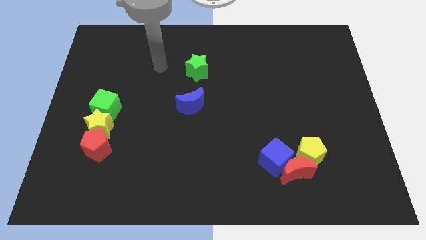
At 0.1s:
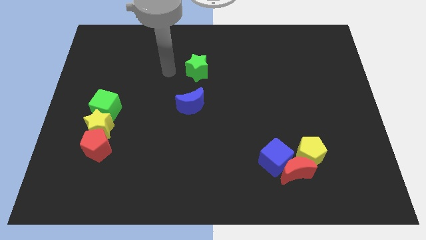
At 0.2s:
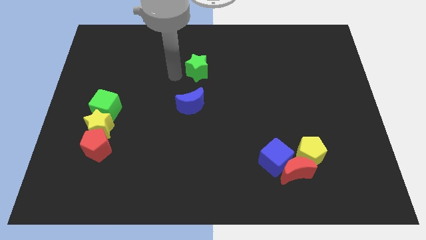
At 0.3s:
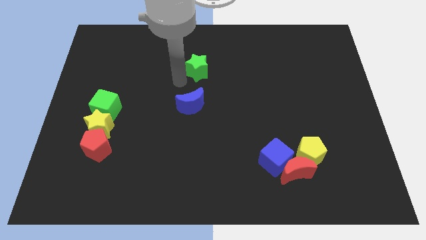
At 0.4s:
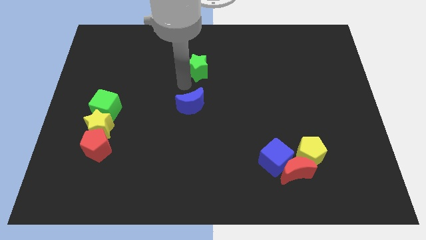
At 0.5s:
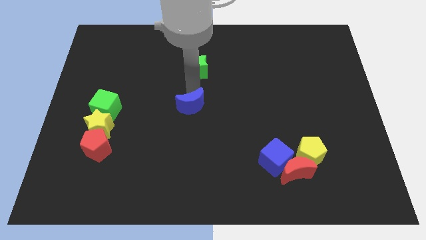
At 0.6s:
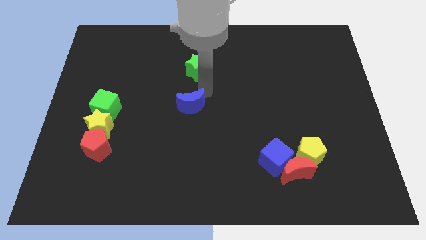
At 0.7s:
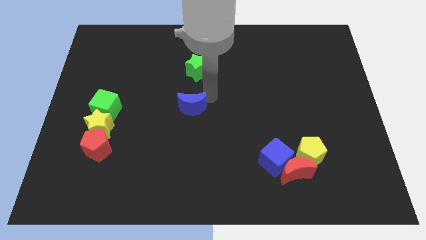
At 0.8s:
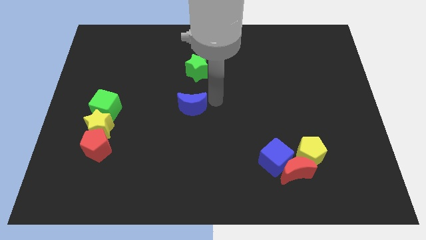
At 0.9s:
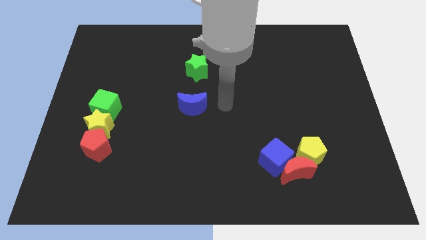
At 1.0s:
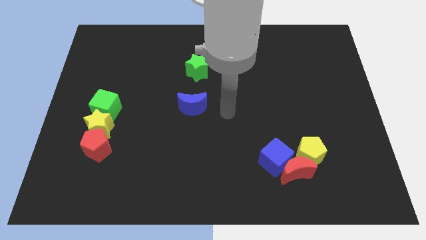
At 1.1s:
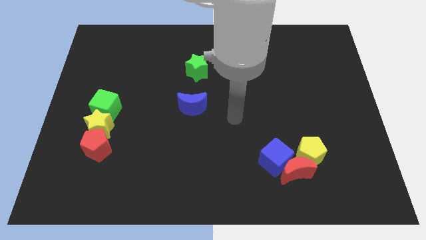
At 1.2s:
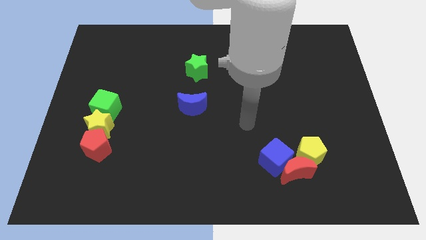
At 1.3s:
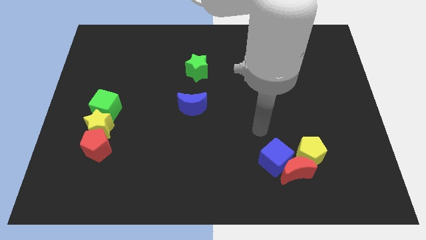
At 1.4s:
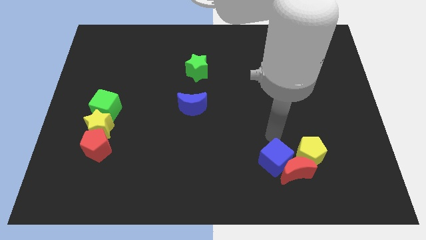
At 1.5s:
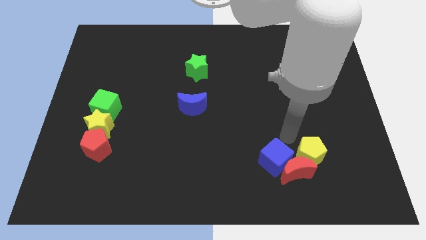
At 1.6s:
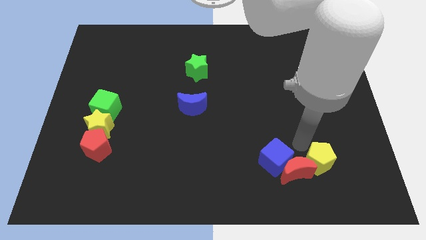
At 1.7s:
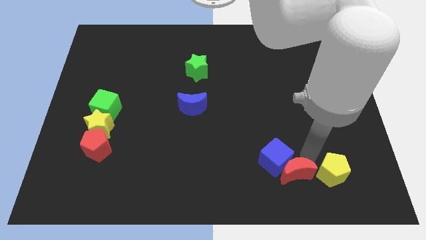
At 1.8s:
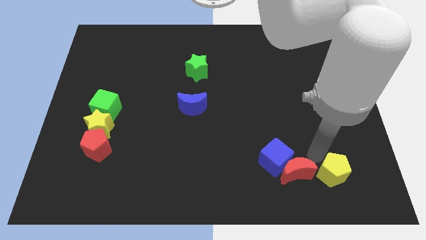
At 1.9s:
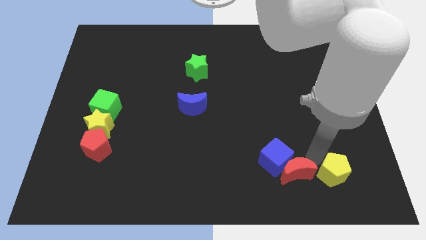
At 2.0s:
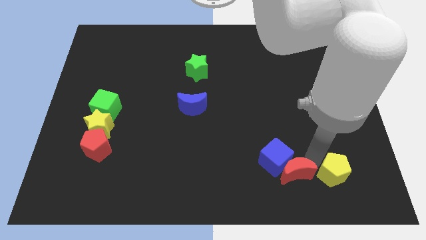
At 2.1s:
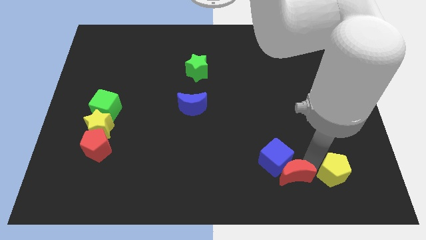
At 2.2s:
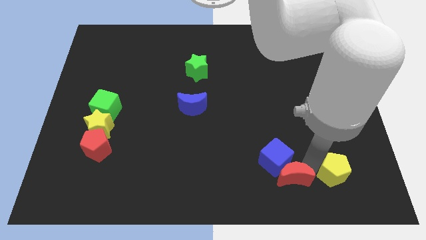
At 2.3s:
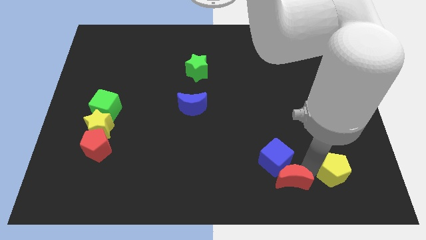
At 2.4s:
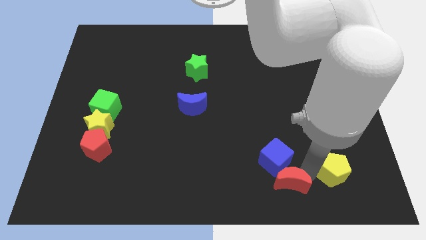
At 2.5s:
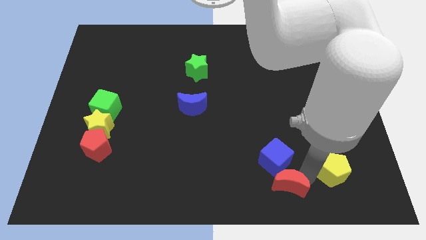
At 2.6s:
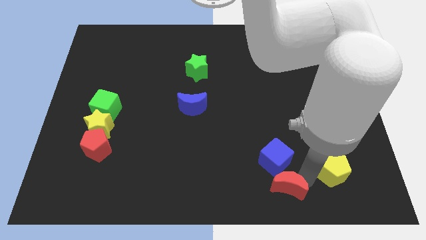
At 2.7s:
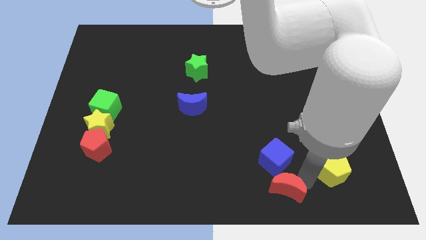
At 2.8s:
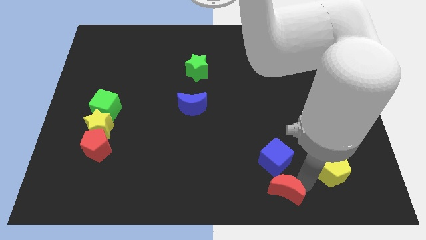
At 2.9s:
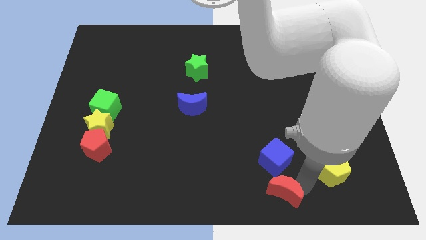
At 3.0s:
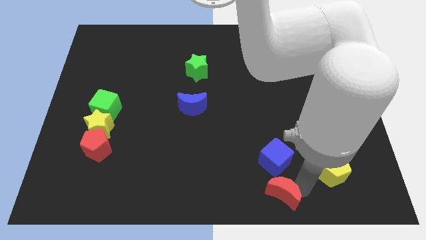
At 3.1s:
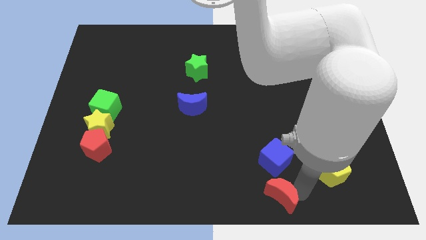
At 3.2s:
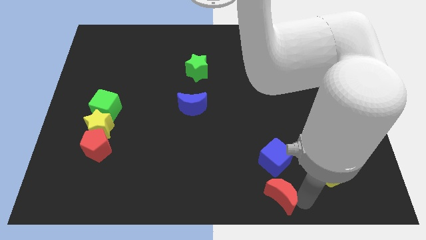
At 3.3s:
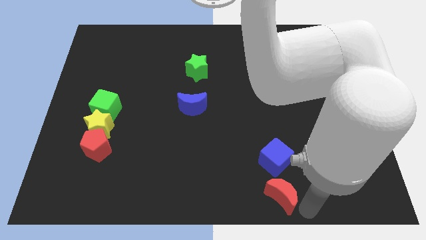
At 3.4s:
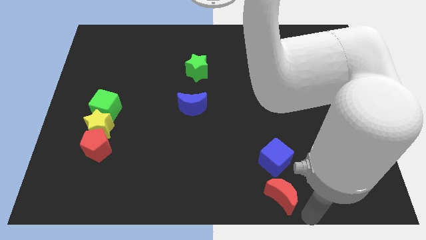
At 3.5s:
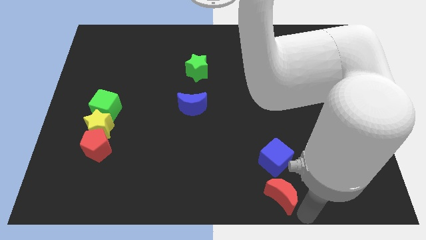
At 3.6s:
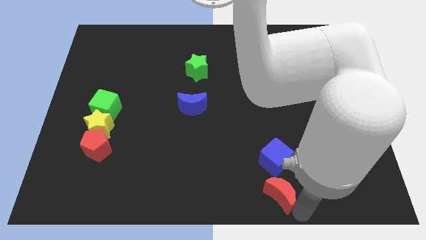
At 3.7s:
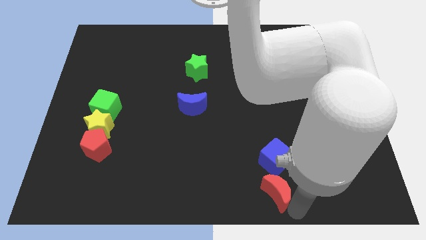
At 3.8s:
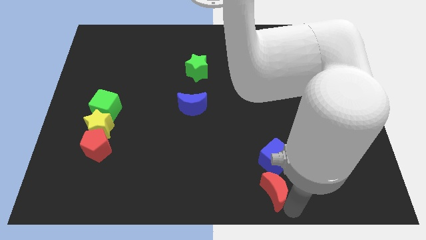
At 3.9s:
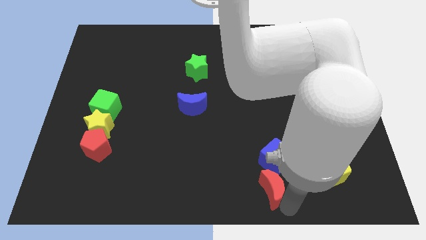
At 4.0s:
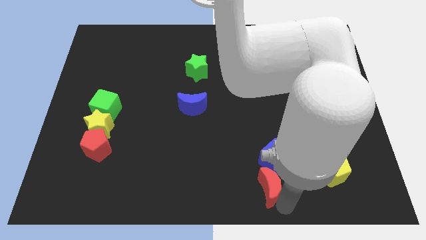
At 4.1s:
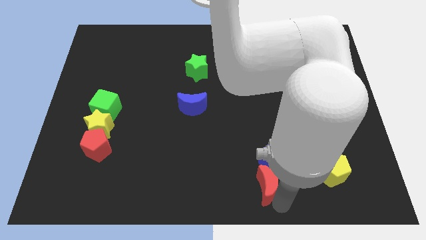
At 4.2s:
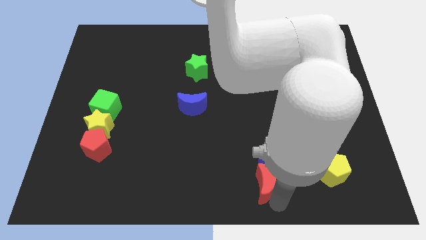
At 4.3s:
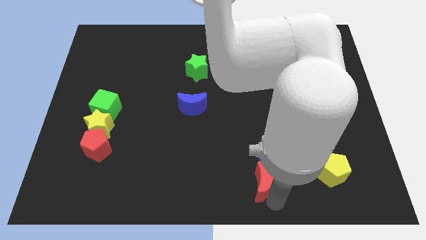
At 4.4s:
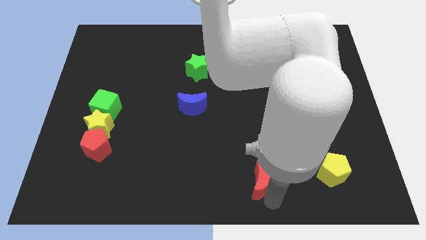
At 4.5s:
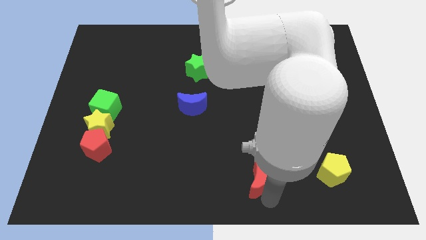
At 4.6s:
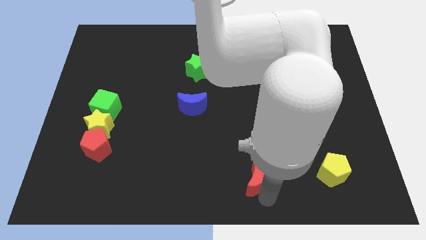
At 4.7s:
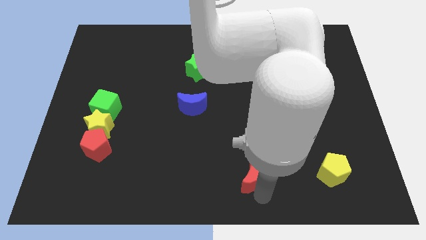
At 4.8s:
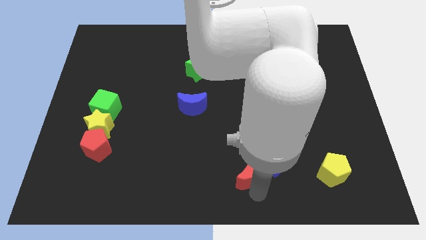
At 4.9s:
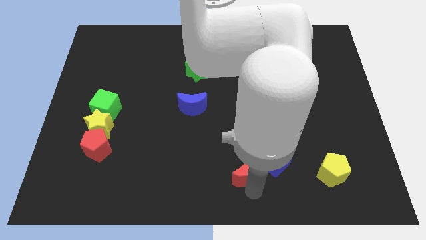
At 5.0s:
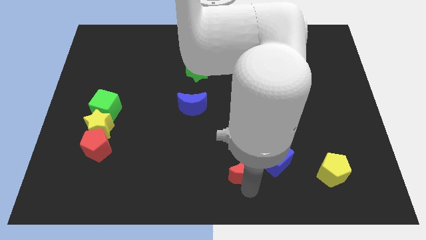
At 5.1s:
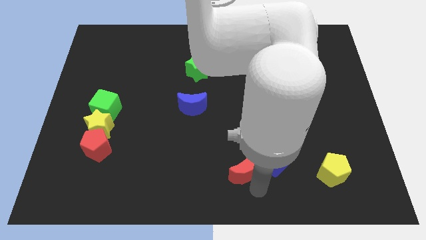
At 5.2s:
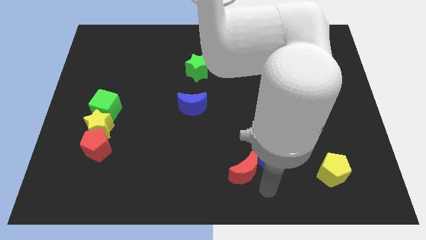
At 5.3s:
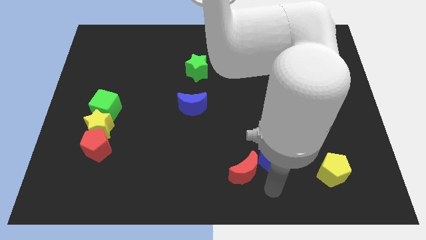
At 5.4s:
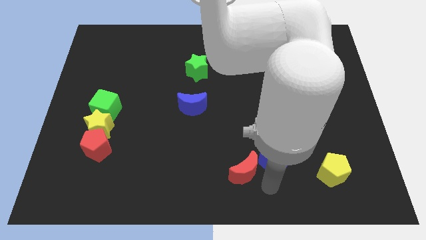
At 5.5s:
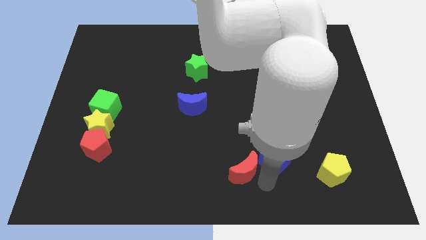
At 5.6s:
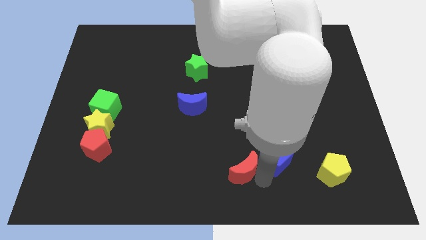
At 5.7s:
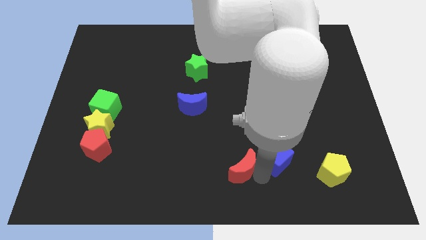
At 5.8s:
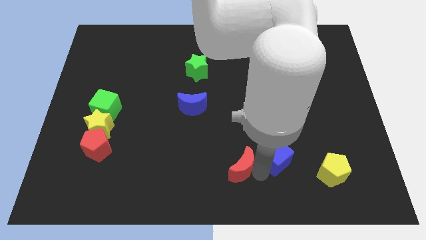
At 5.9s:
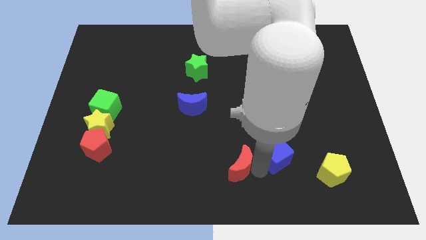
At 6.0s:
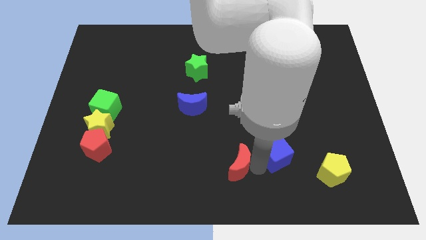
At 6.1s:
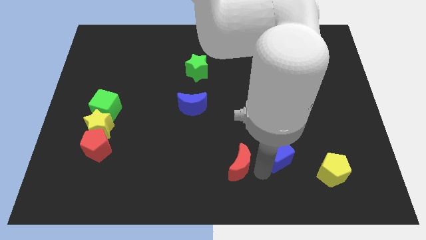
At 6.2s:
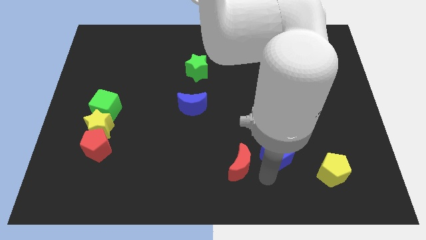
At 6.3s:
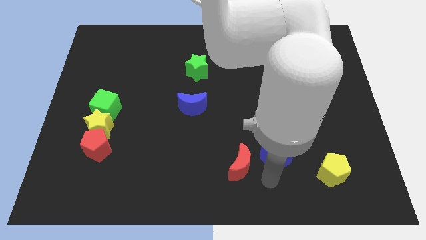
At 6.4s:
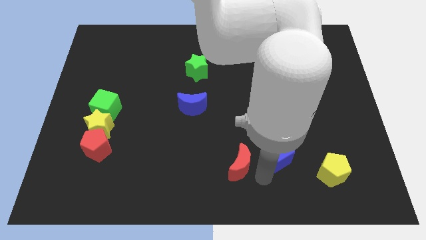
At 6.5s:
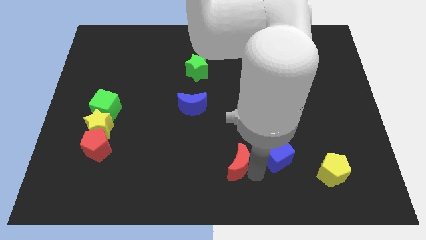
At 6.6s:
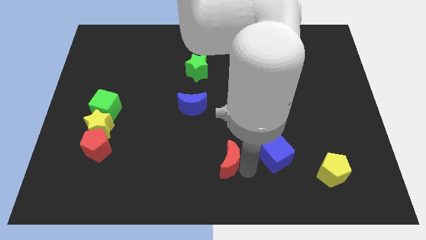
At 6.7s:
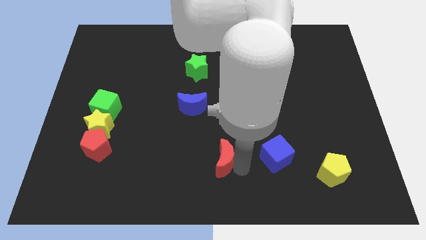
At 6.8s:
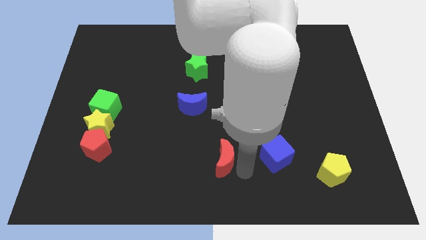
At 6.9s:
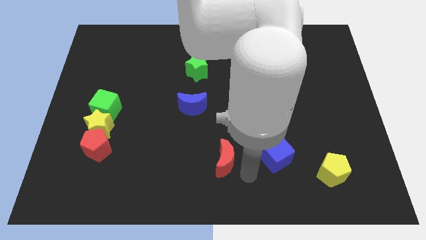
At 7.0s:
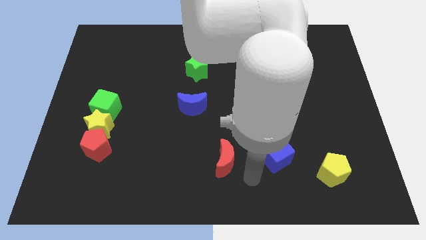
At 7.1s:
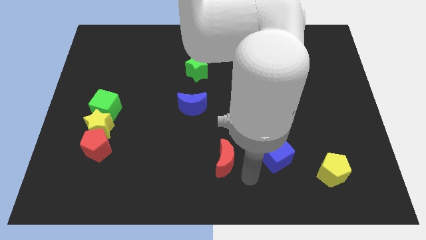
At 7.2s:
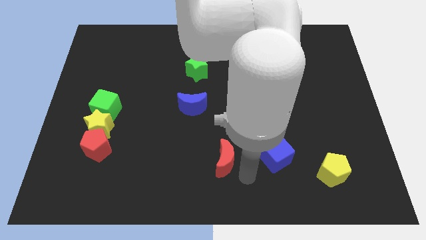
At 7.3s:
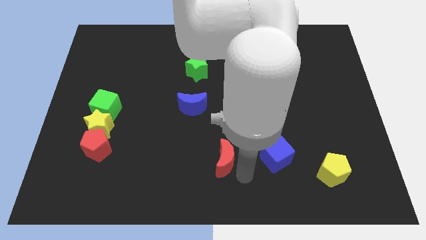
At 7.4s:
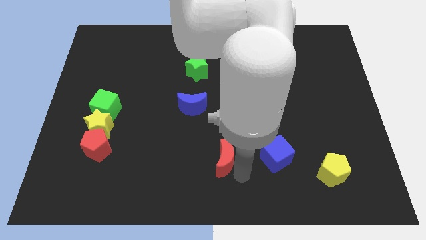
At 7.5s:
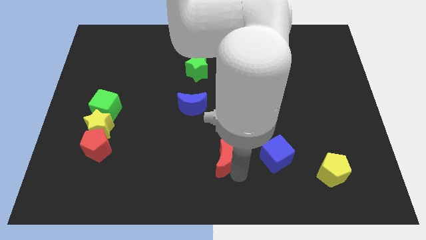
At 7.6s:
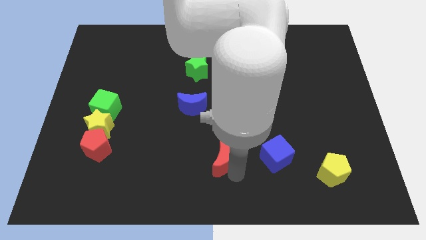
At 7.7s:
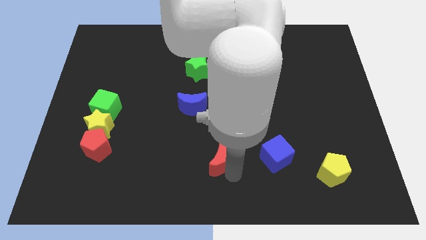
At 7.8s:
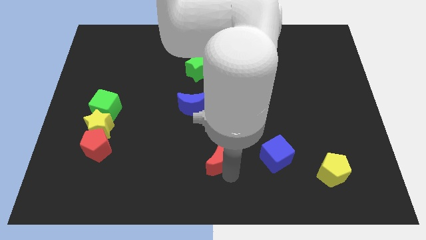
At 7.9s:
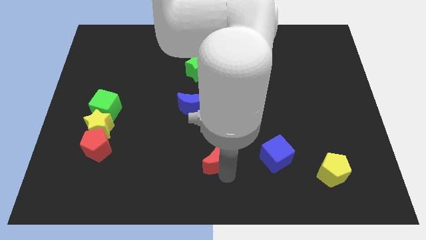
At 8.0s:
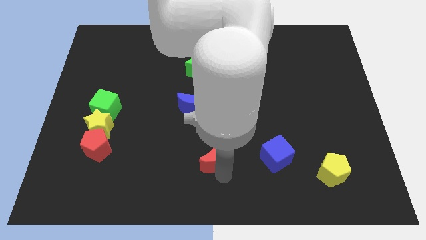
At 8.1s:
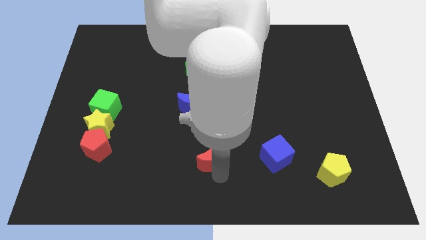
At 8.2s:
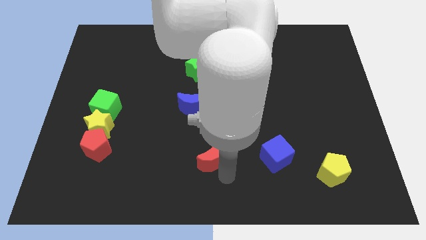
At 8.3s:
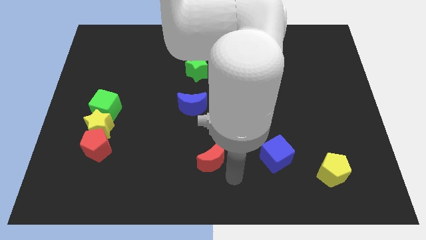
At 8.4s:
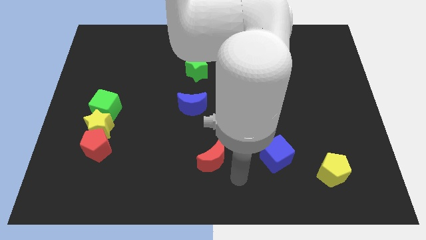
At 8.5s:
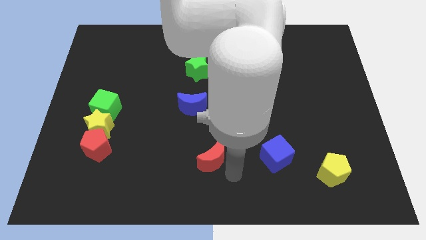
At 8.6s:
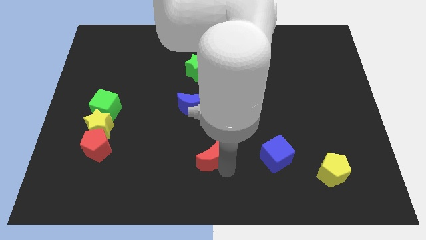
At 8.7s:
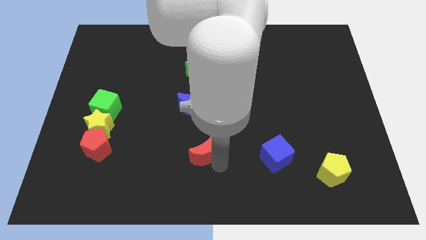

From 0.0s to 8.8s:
put the red moon to the bottom of the blue moon
